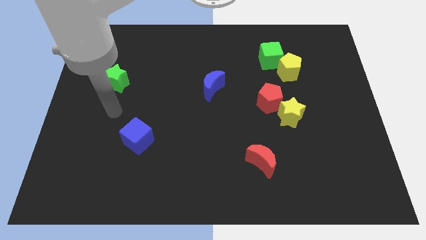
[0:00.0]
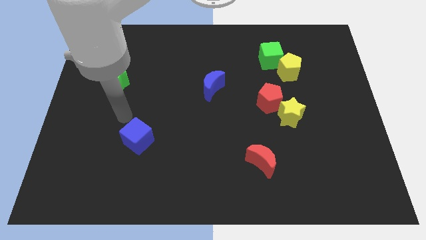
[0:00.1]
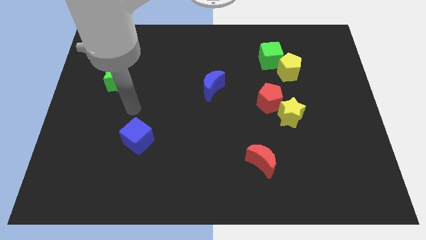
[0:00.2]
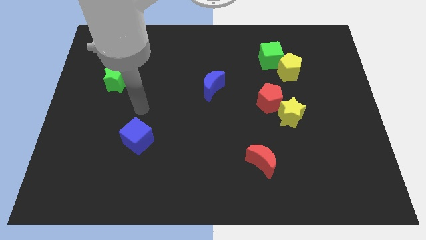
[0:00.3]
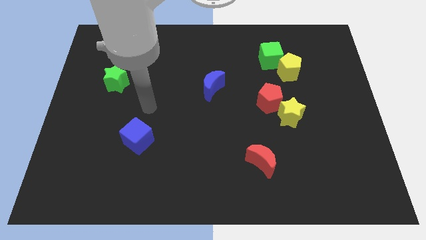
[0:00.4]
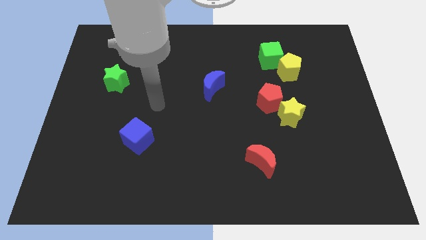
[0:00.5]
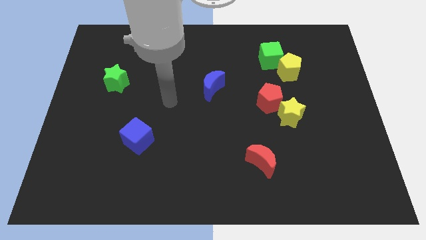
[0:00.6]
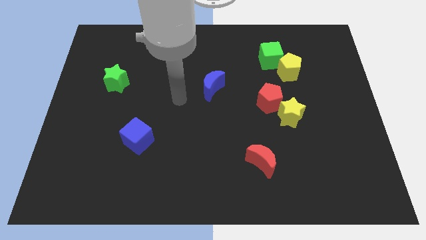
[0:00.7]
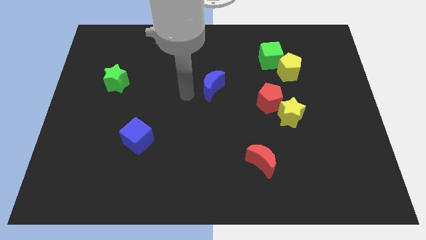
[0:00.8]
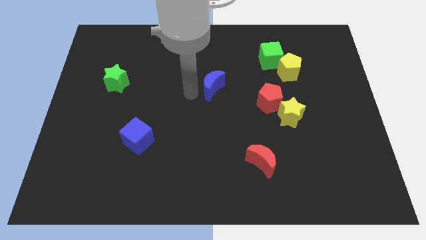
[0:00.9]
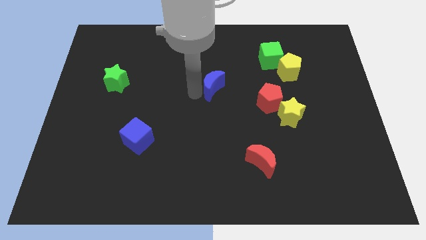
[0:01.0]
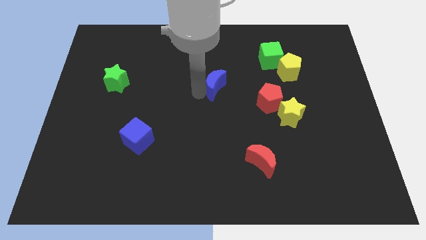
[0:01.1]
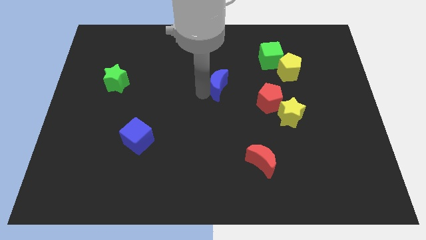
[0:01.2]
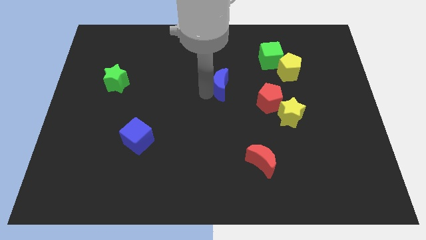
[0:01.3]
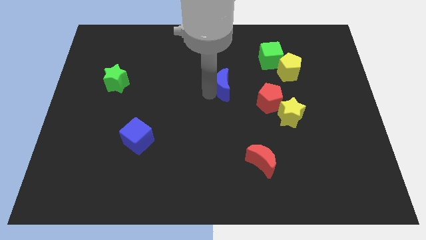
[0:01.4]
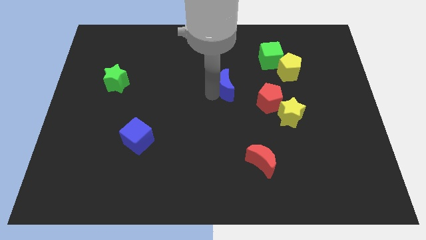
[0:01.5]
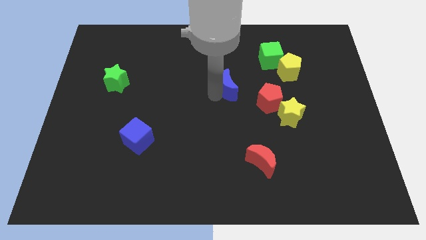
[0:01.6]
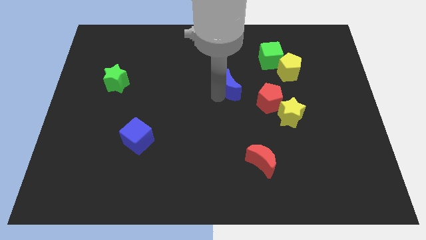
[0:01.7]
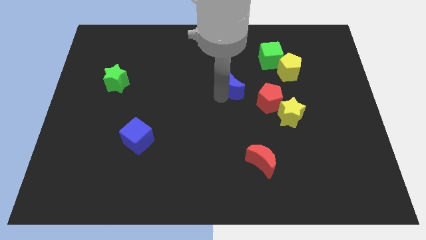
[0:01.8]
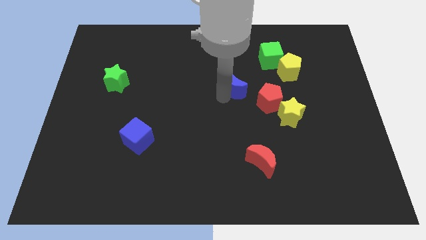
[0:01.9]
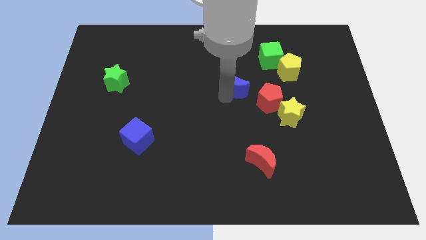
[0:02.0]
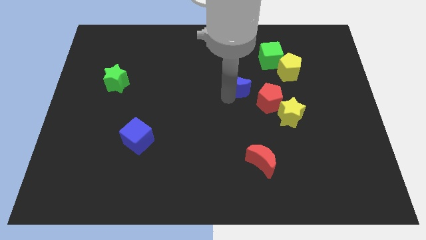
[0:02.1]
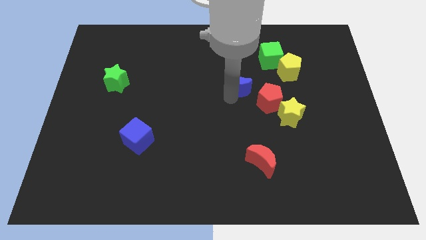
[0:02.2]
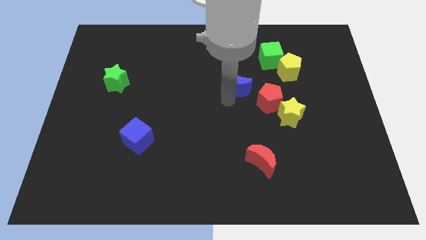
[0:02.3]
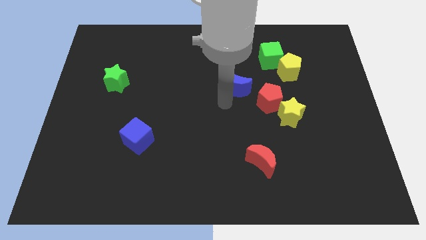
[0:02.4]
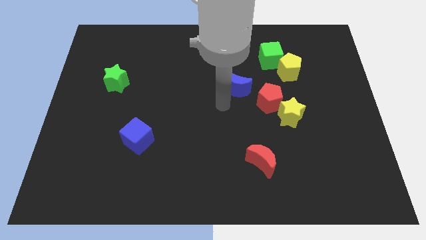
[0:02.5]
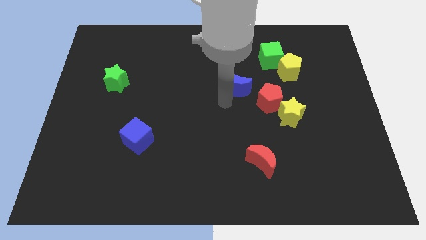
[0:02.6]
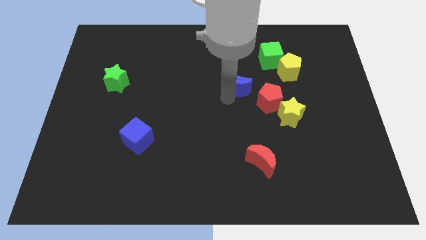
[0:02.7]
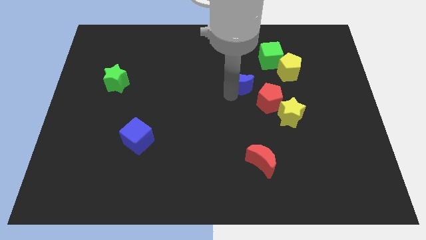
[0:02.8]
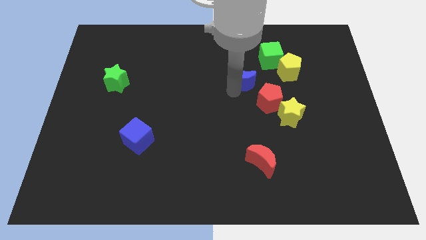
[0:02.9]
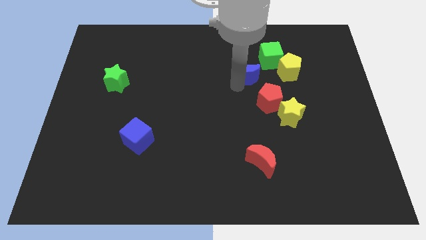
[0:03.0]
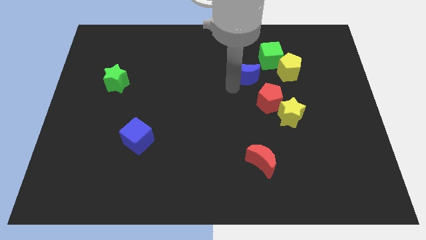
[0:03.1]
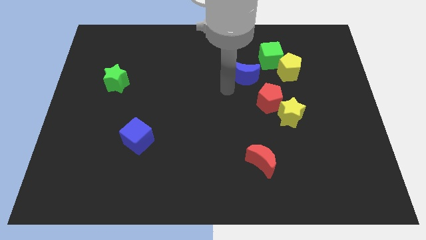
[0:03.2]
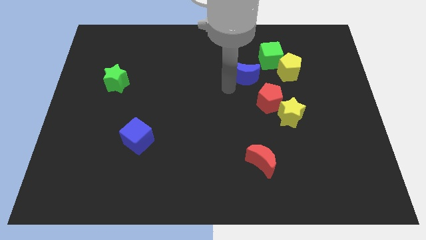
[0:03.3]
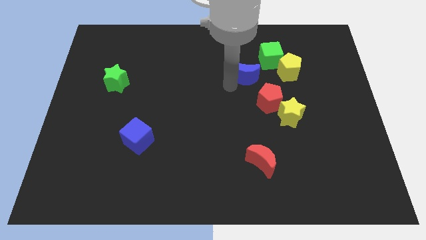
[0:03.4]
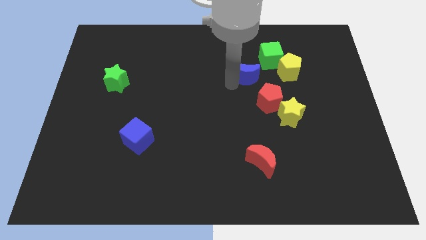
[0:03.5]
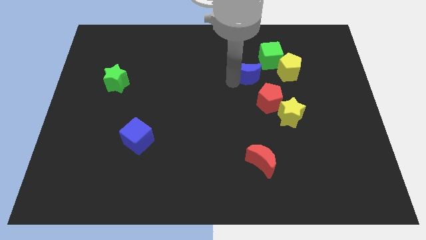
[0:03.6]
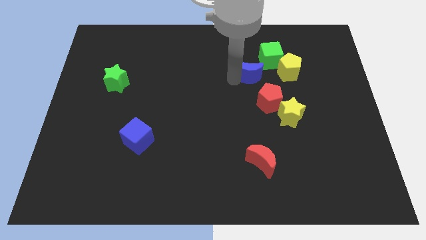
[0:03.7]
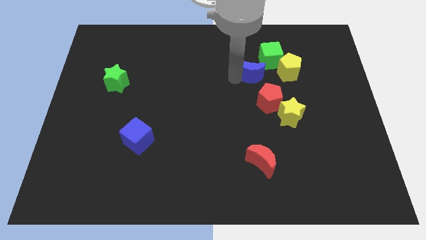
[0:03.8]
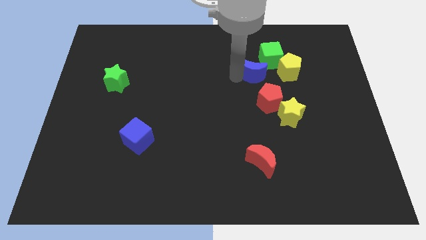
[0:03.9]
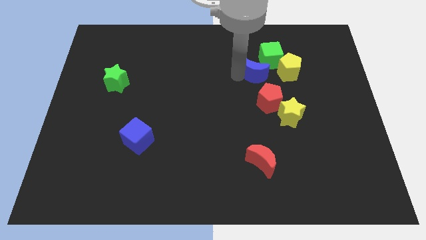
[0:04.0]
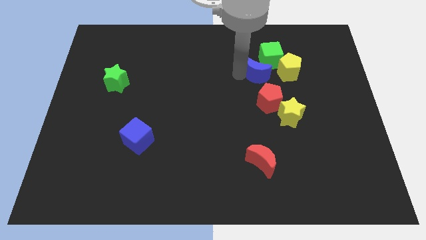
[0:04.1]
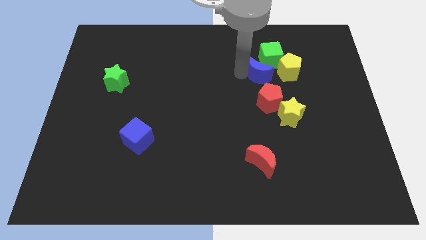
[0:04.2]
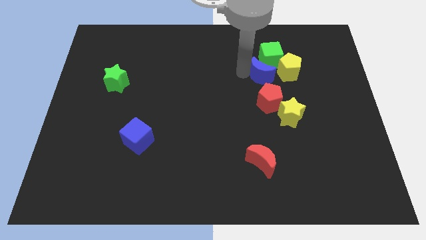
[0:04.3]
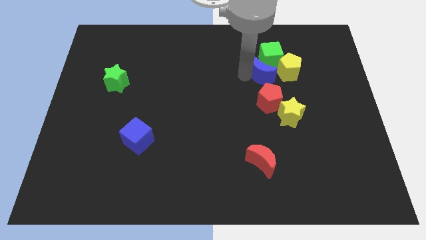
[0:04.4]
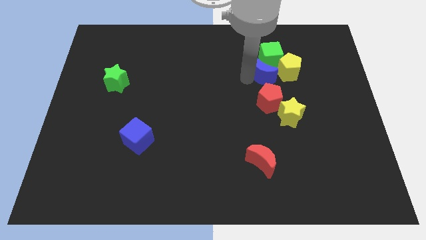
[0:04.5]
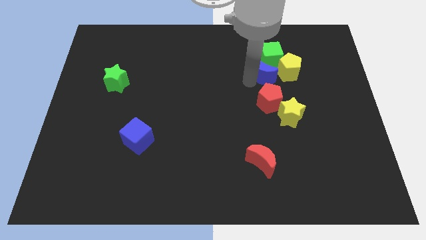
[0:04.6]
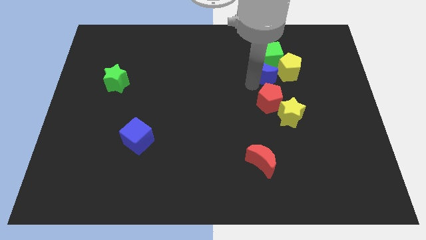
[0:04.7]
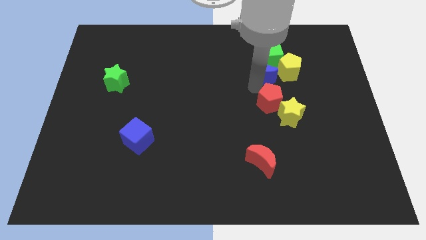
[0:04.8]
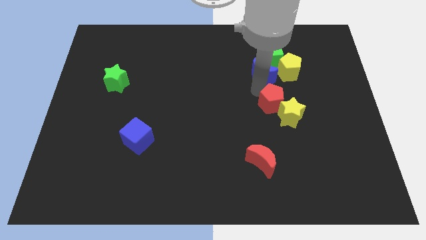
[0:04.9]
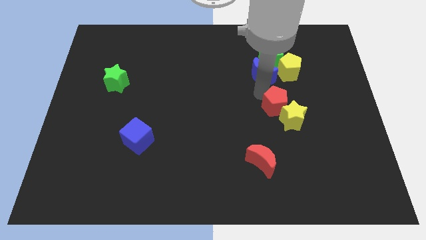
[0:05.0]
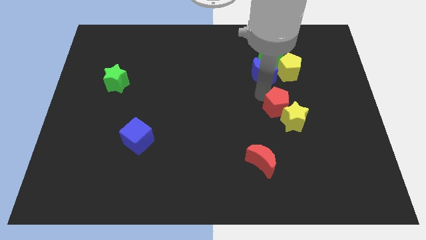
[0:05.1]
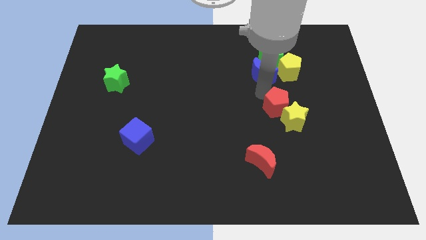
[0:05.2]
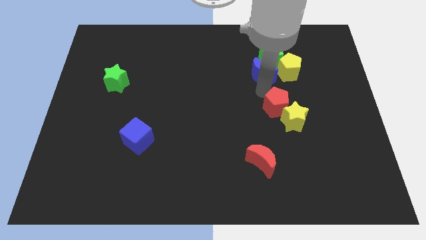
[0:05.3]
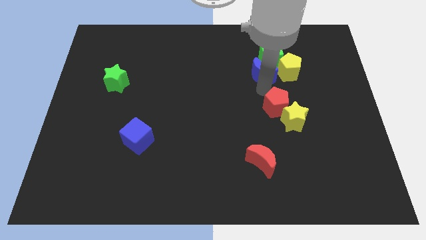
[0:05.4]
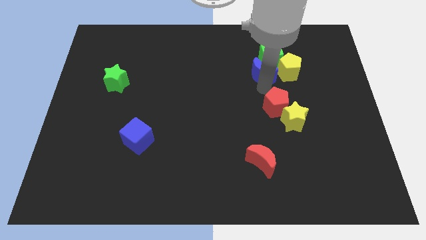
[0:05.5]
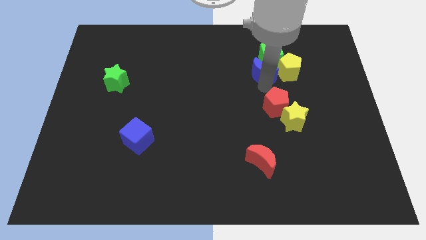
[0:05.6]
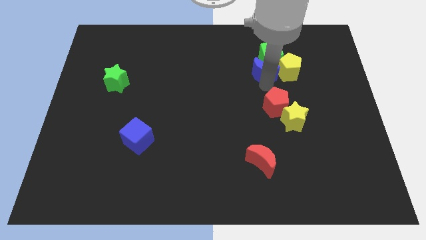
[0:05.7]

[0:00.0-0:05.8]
move the blue moon next to the green cube

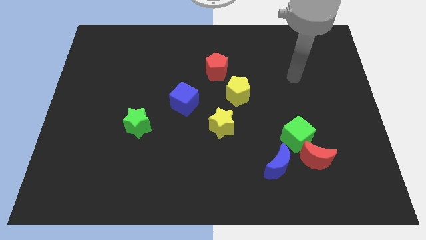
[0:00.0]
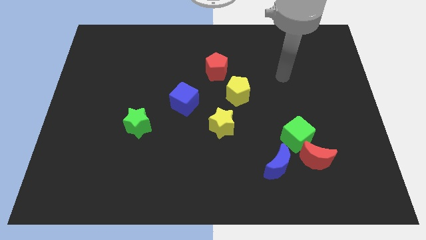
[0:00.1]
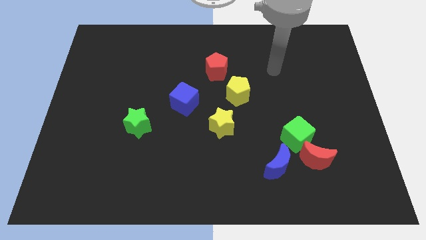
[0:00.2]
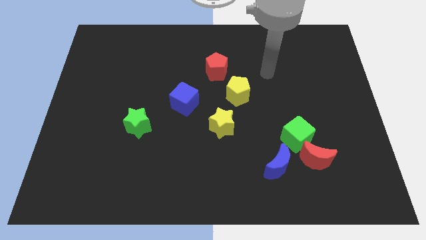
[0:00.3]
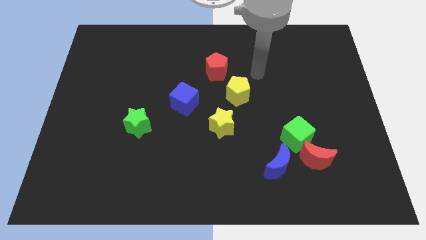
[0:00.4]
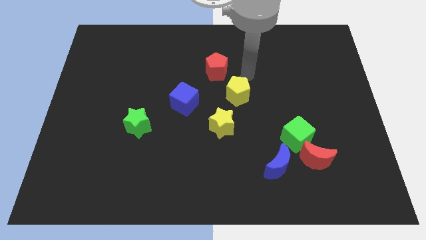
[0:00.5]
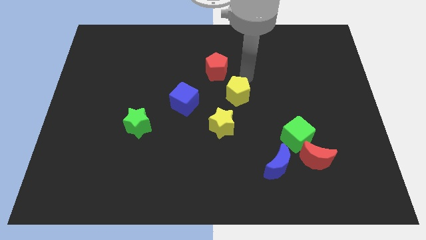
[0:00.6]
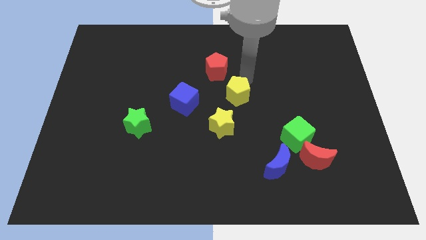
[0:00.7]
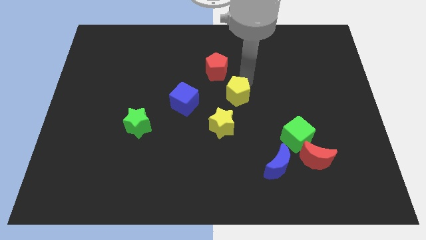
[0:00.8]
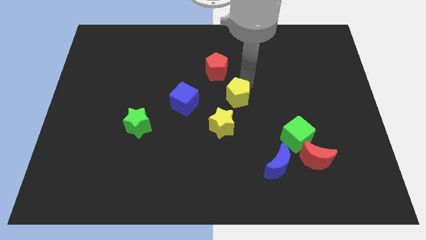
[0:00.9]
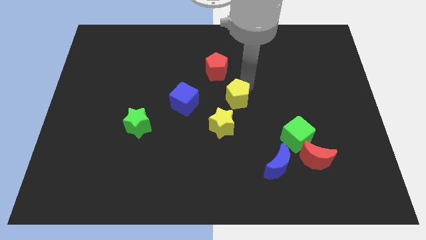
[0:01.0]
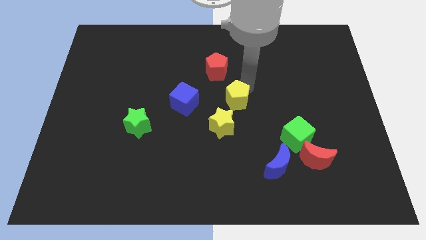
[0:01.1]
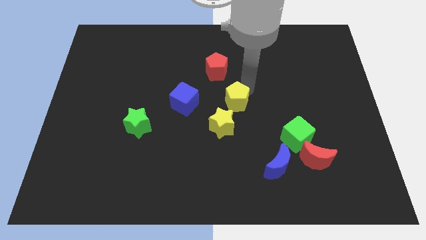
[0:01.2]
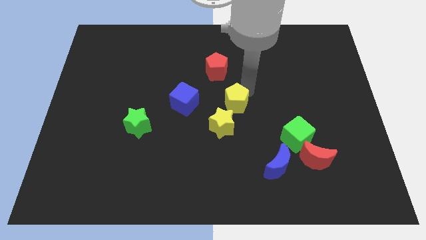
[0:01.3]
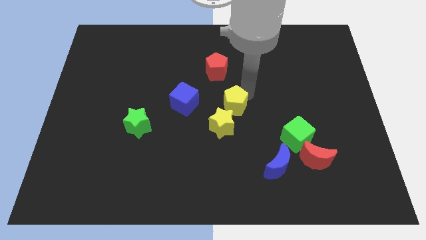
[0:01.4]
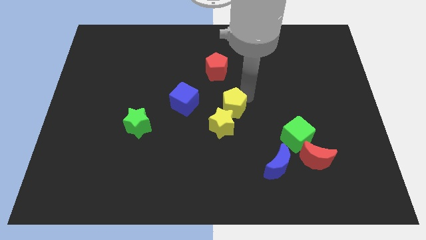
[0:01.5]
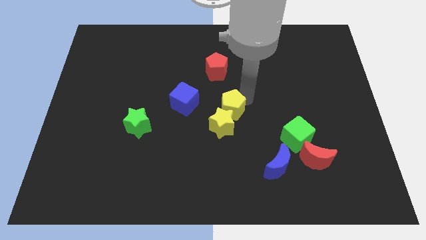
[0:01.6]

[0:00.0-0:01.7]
move the yellow pentagon next to the yellow star

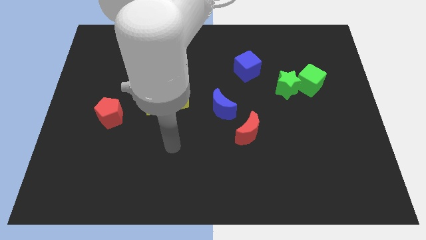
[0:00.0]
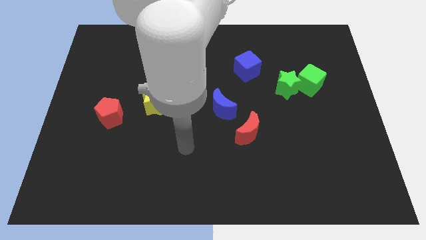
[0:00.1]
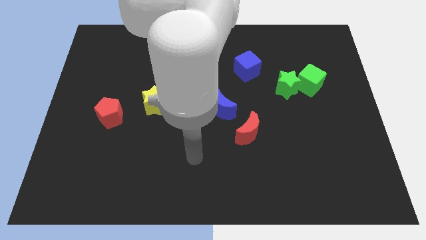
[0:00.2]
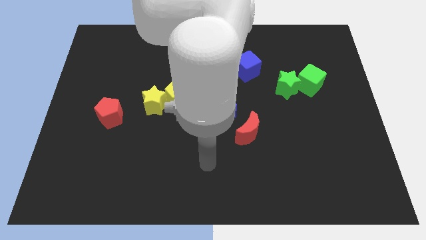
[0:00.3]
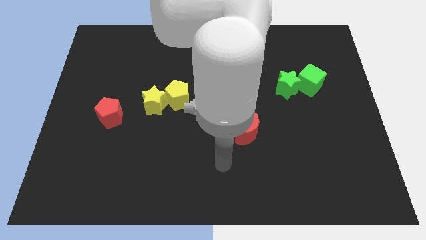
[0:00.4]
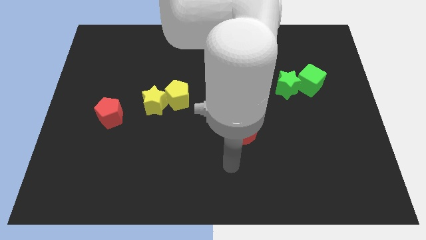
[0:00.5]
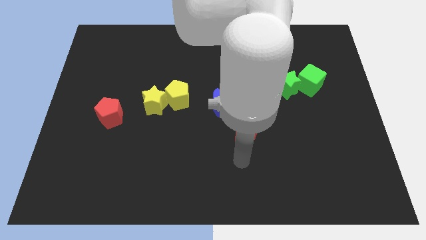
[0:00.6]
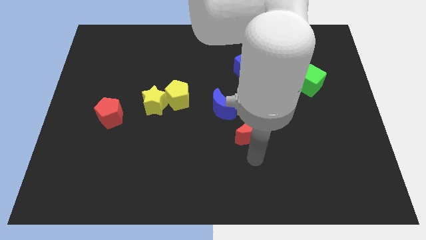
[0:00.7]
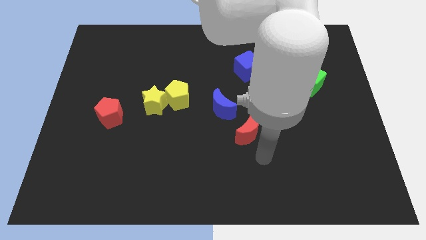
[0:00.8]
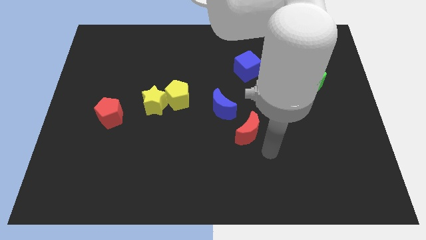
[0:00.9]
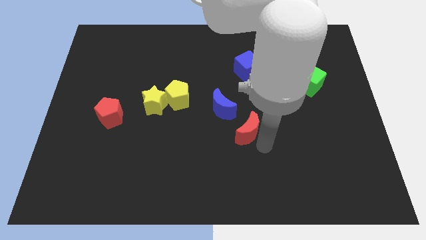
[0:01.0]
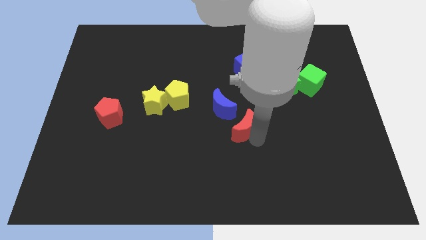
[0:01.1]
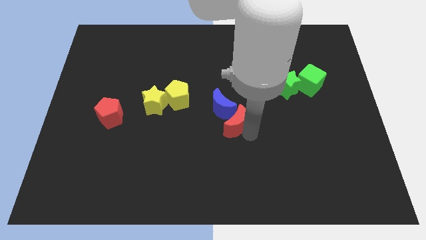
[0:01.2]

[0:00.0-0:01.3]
slide the red moon next to the blue moon
